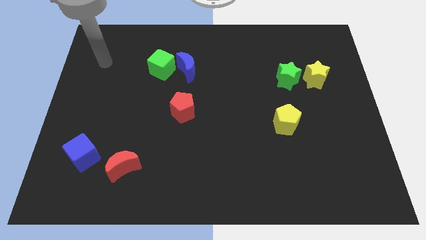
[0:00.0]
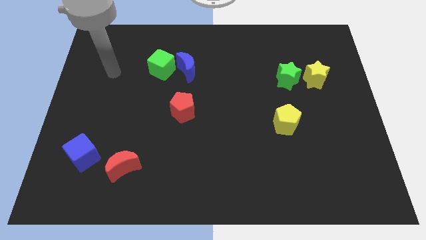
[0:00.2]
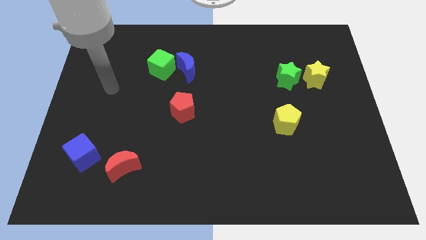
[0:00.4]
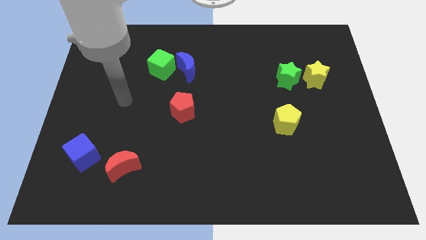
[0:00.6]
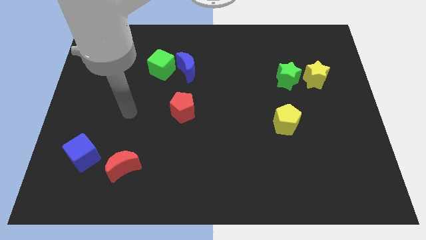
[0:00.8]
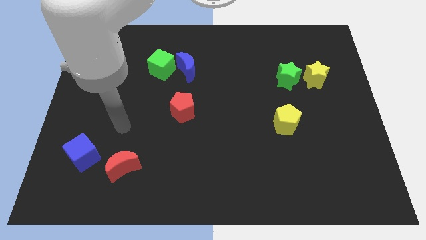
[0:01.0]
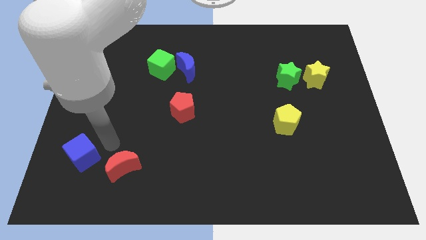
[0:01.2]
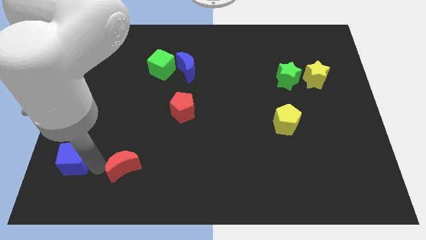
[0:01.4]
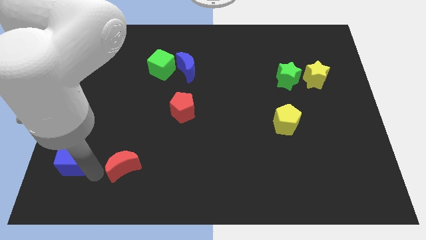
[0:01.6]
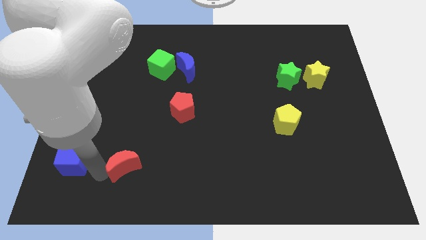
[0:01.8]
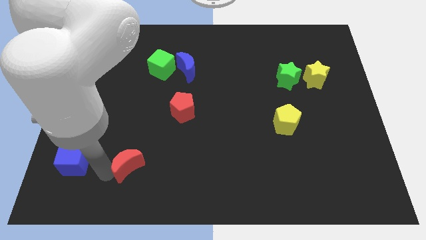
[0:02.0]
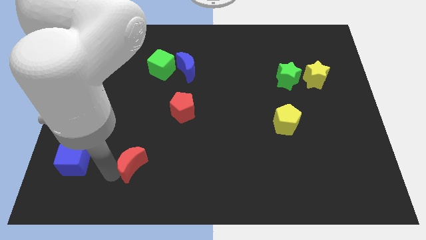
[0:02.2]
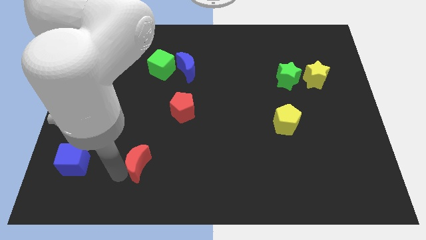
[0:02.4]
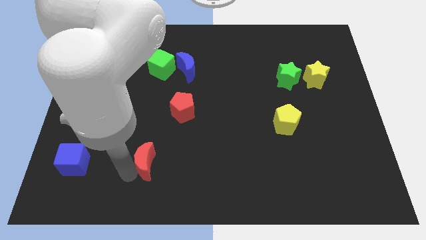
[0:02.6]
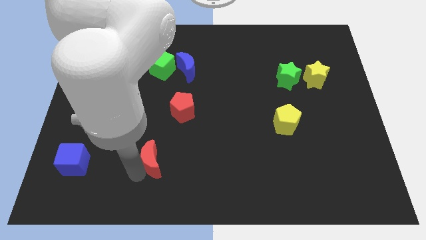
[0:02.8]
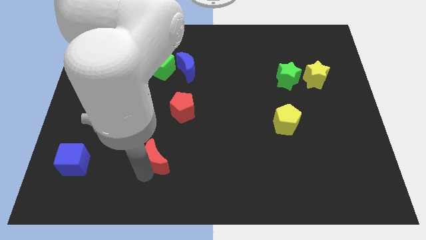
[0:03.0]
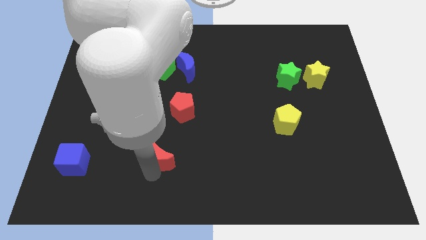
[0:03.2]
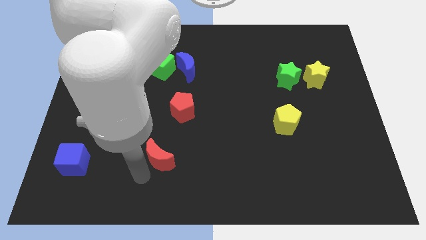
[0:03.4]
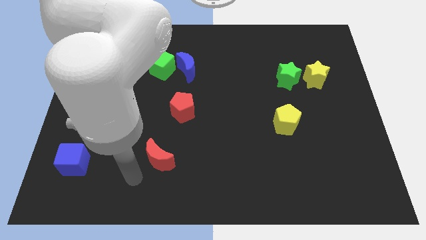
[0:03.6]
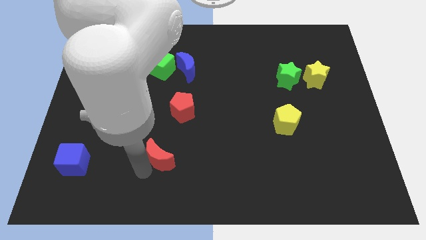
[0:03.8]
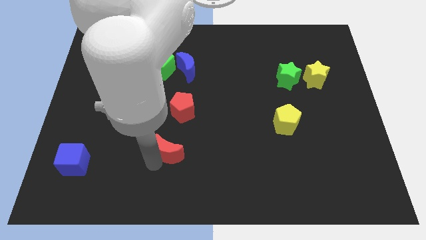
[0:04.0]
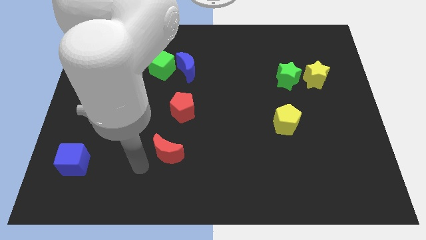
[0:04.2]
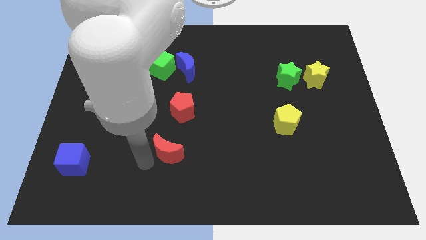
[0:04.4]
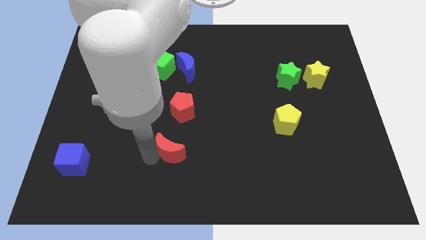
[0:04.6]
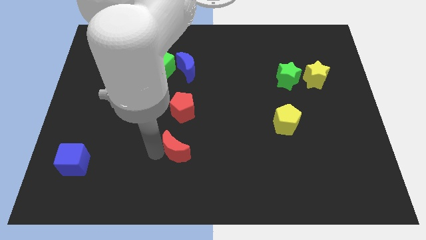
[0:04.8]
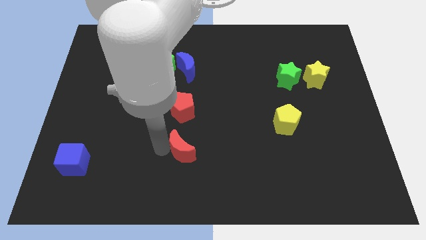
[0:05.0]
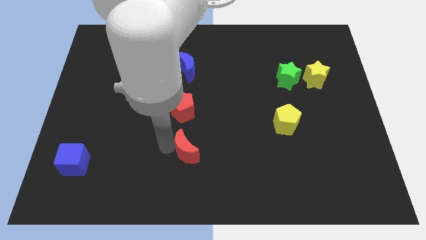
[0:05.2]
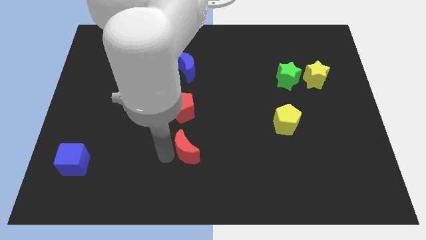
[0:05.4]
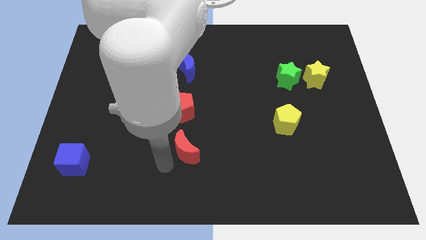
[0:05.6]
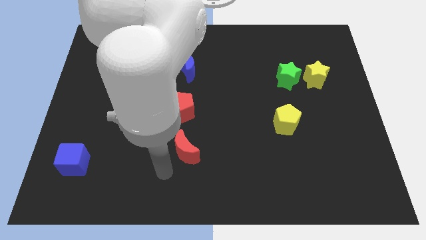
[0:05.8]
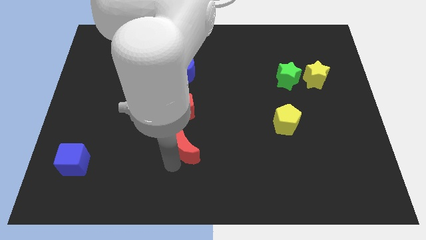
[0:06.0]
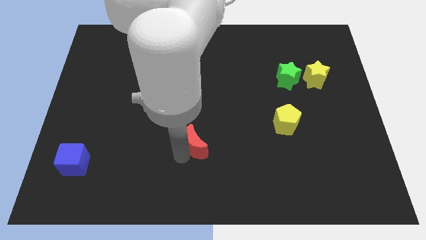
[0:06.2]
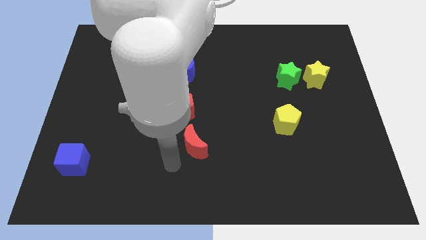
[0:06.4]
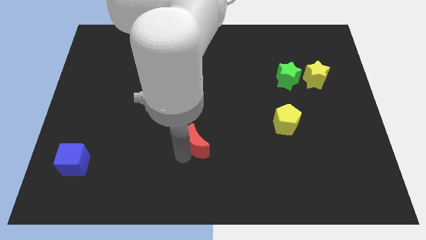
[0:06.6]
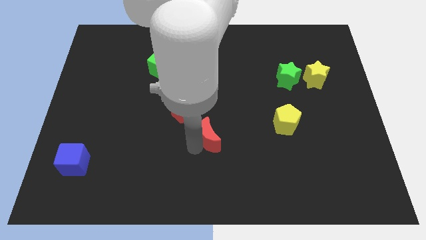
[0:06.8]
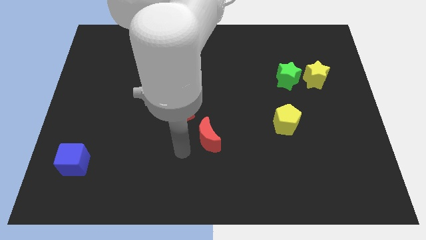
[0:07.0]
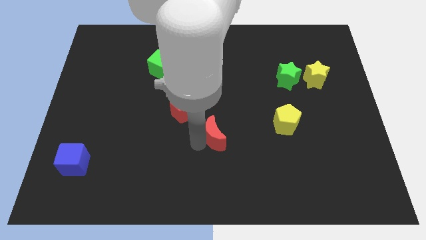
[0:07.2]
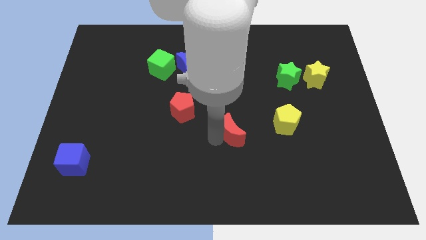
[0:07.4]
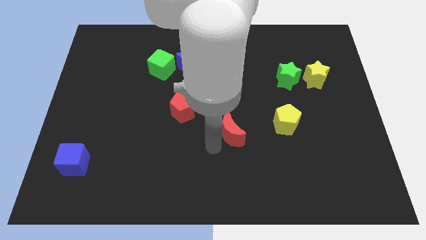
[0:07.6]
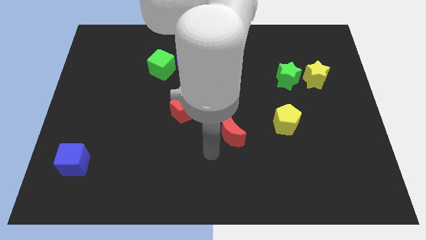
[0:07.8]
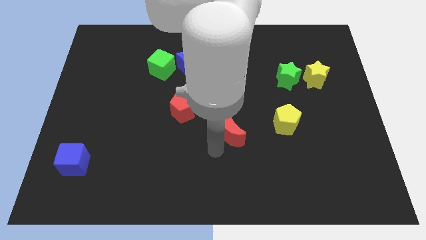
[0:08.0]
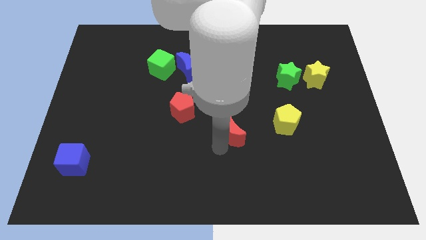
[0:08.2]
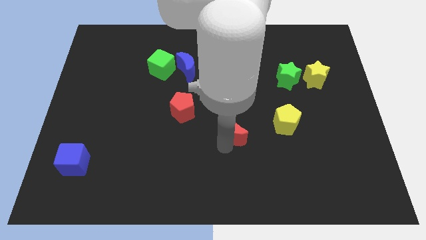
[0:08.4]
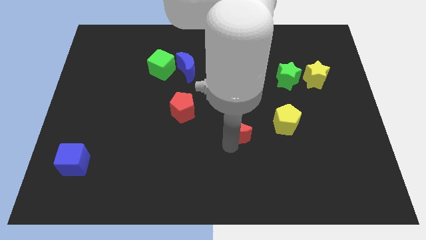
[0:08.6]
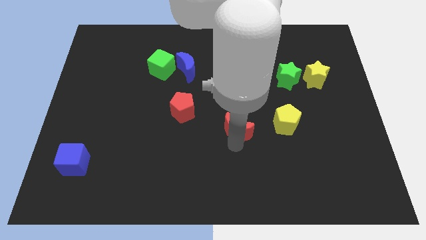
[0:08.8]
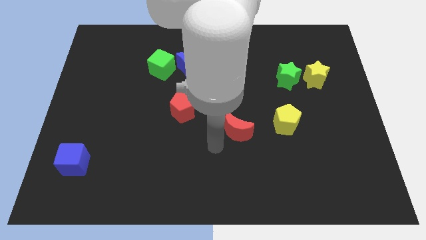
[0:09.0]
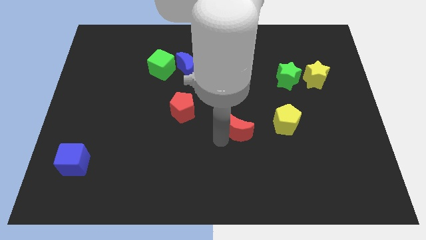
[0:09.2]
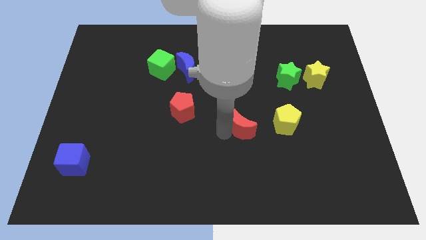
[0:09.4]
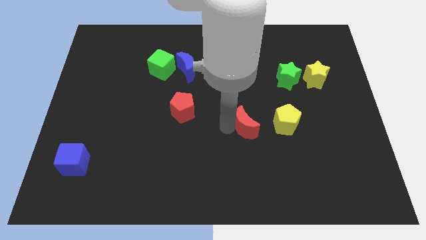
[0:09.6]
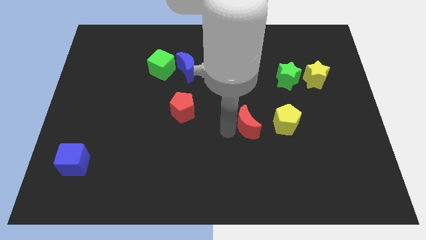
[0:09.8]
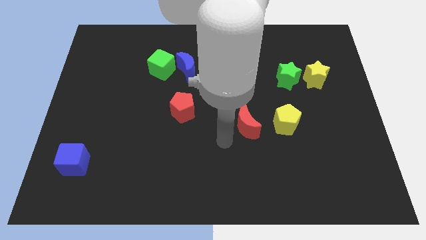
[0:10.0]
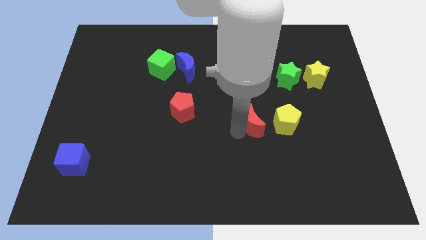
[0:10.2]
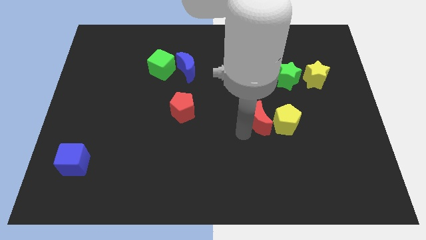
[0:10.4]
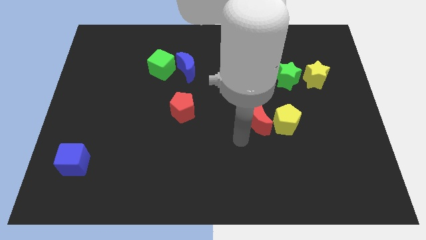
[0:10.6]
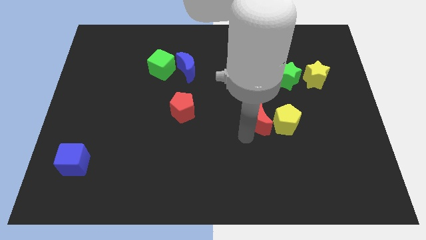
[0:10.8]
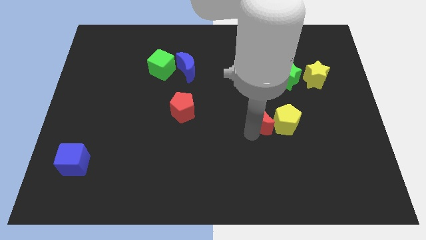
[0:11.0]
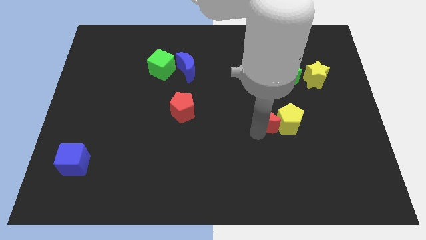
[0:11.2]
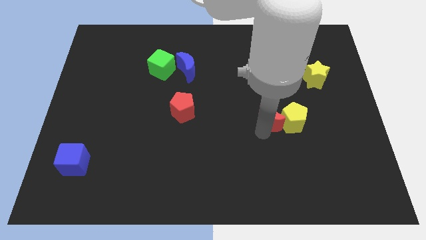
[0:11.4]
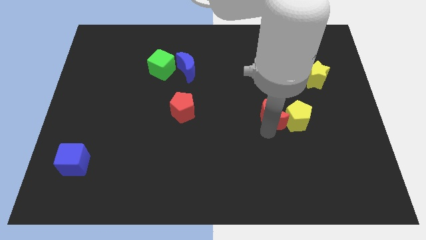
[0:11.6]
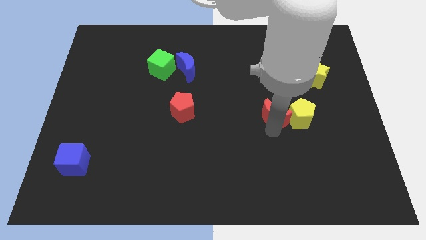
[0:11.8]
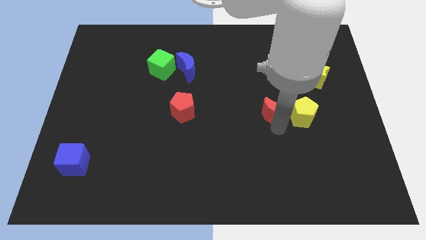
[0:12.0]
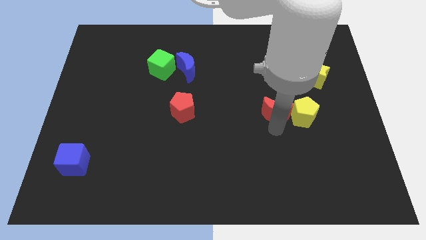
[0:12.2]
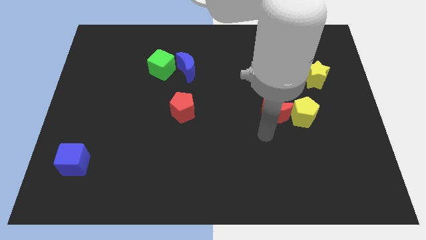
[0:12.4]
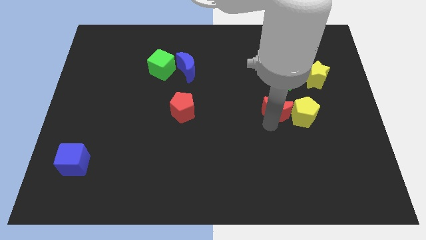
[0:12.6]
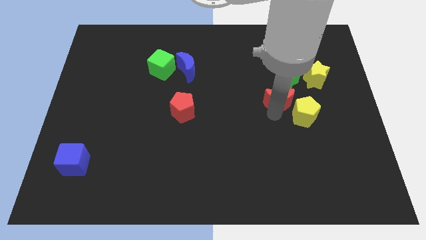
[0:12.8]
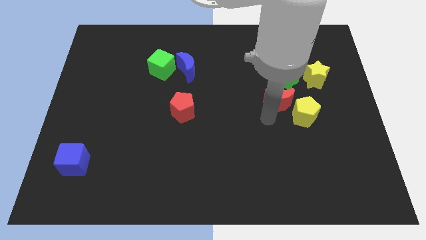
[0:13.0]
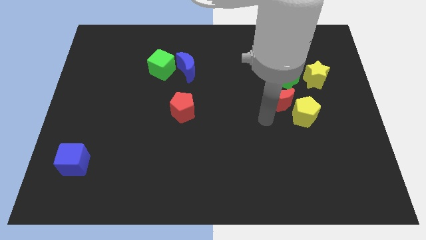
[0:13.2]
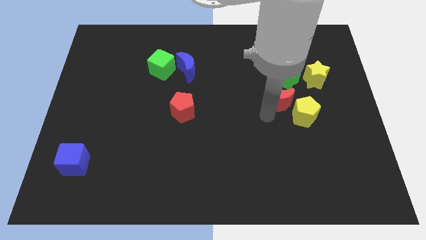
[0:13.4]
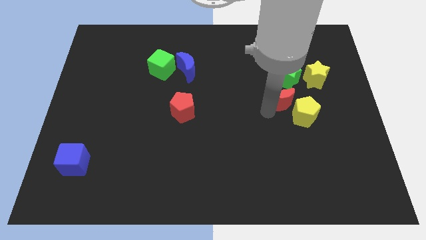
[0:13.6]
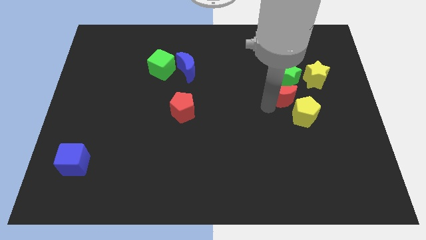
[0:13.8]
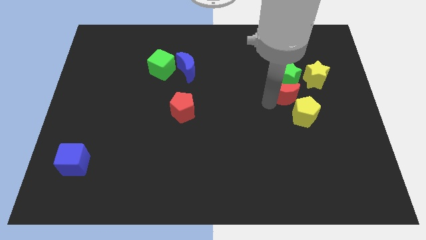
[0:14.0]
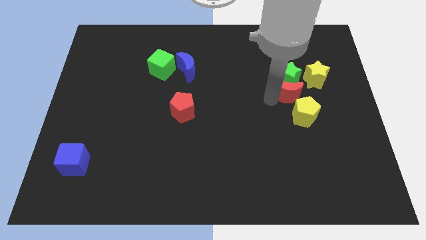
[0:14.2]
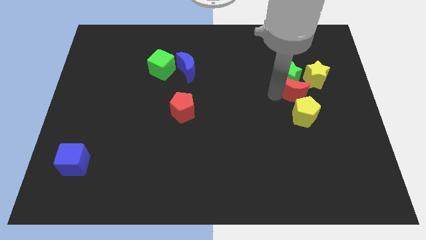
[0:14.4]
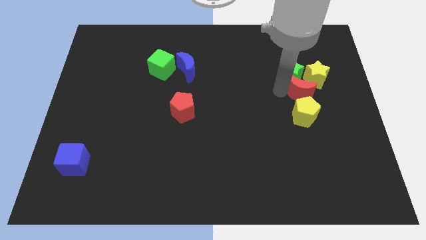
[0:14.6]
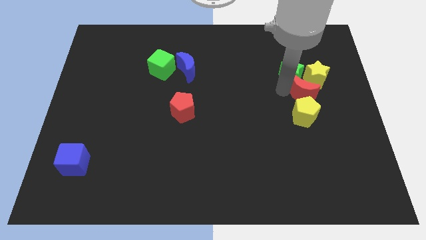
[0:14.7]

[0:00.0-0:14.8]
push the red moon close to the yellow star

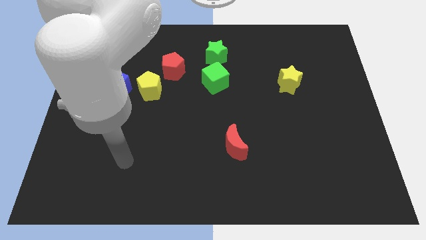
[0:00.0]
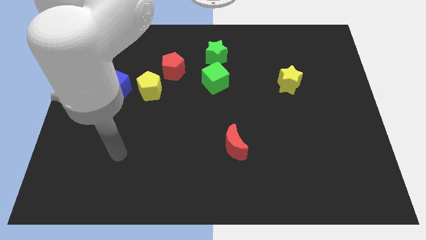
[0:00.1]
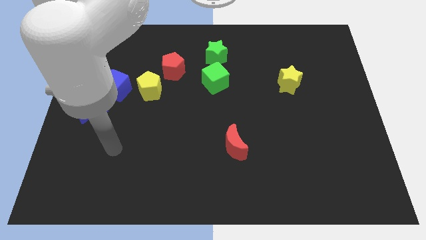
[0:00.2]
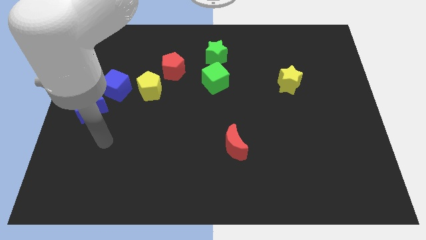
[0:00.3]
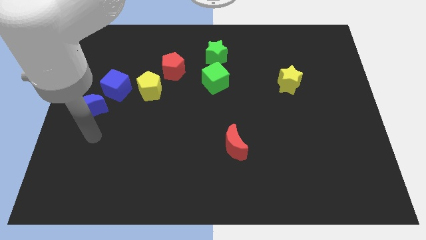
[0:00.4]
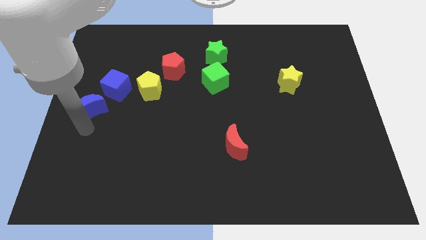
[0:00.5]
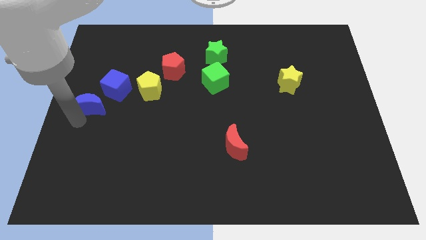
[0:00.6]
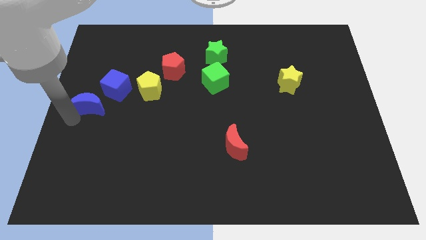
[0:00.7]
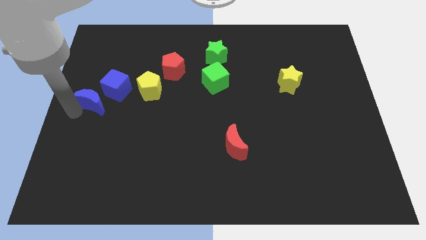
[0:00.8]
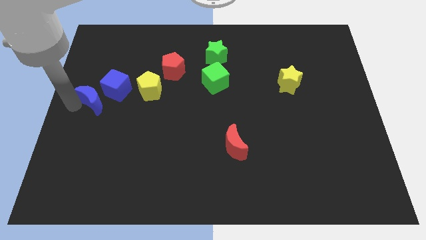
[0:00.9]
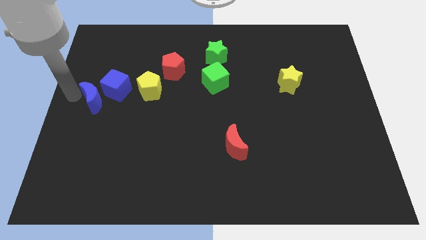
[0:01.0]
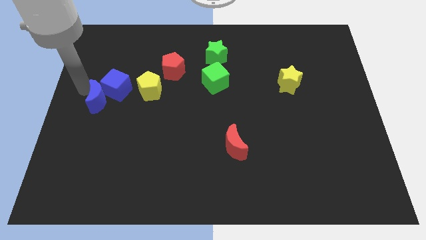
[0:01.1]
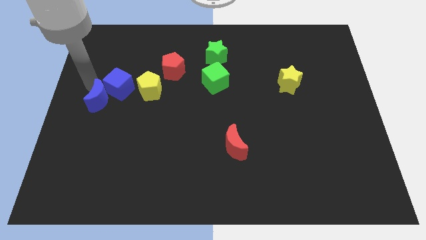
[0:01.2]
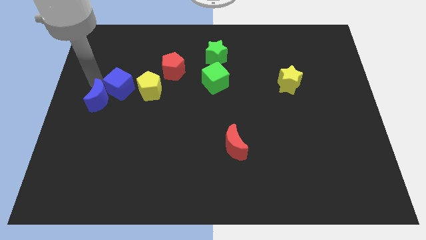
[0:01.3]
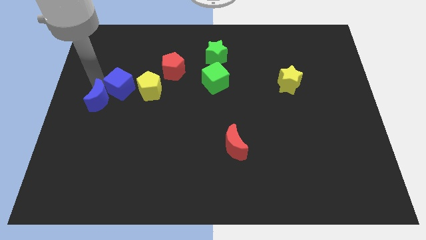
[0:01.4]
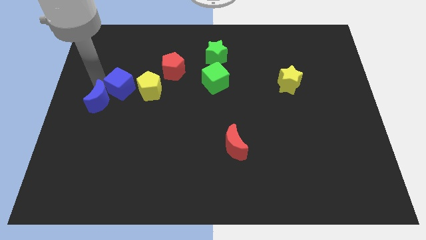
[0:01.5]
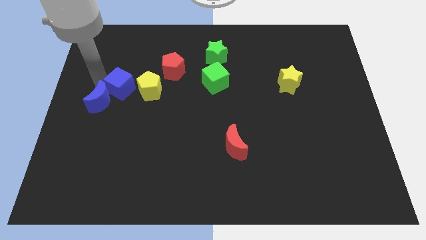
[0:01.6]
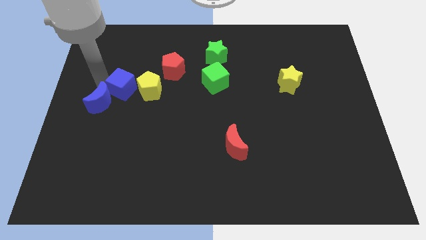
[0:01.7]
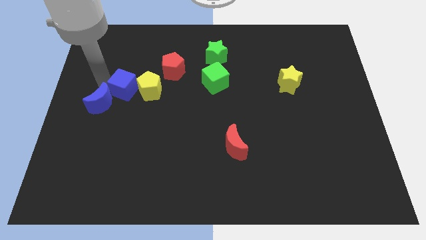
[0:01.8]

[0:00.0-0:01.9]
slide the blue cube to the yellow pentagon
